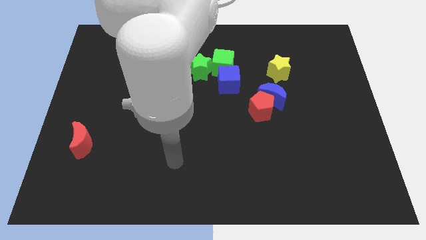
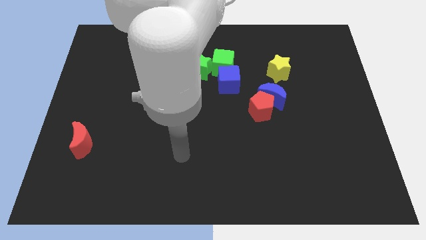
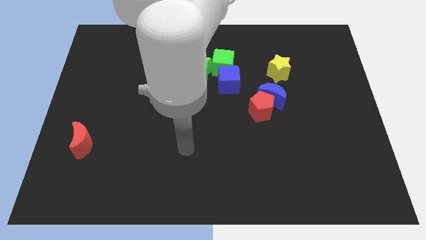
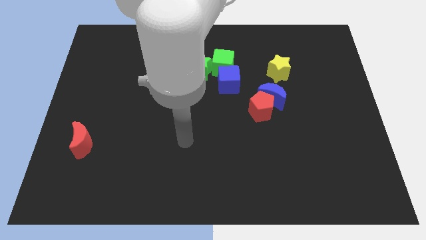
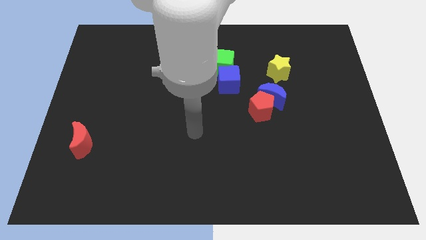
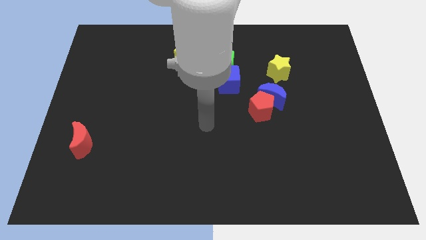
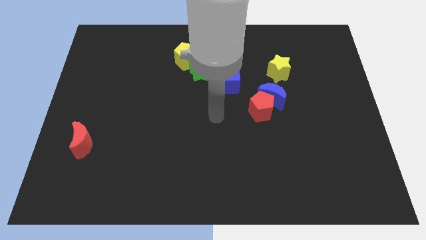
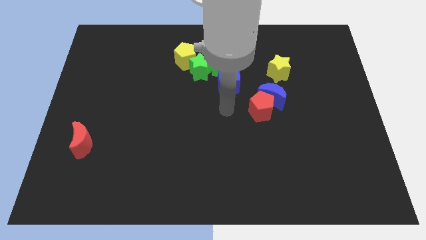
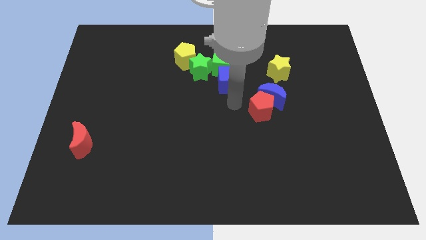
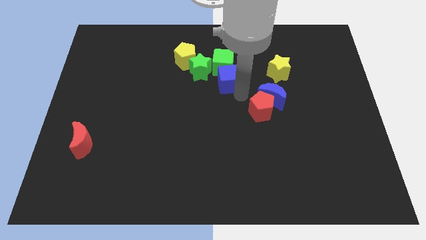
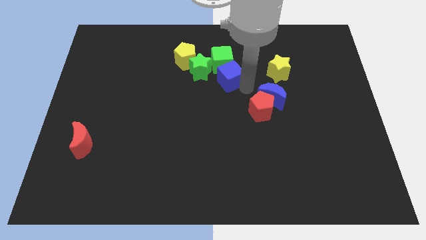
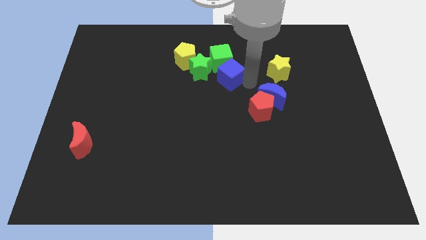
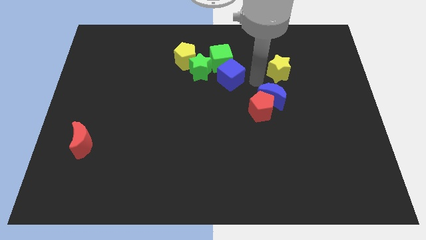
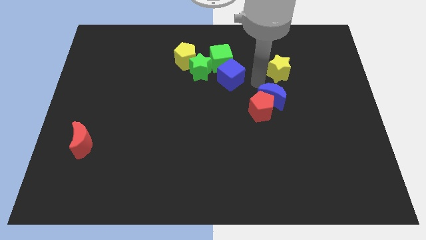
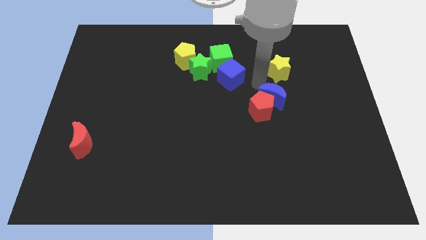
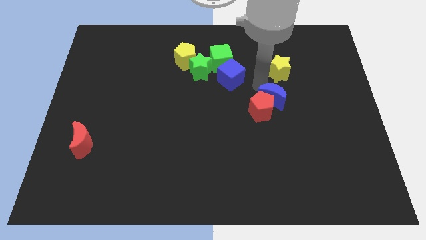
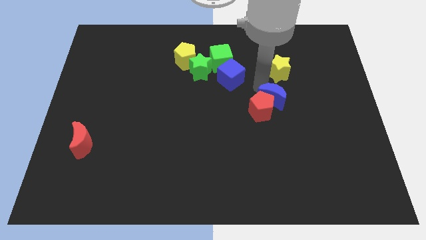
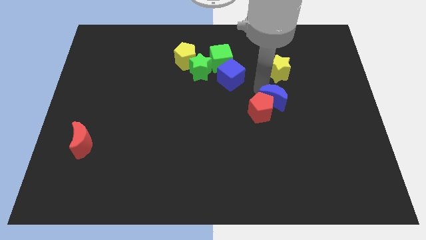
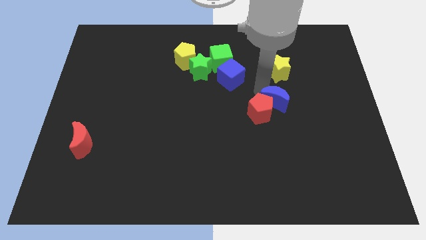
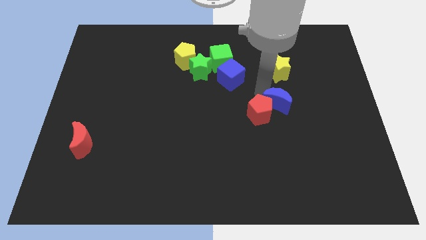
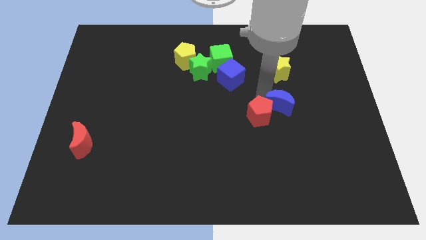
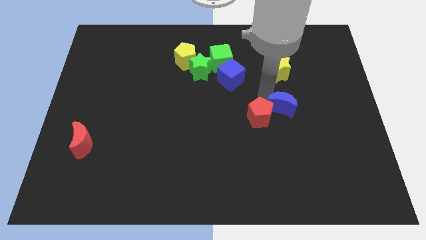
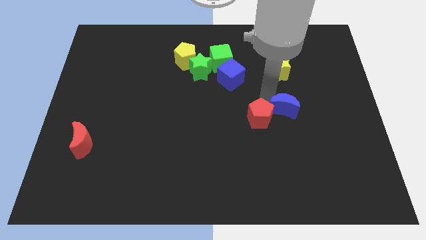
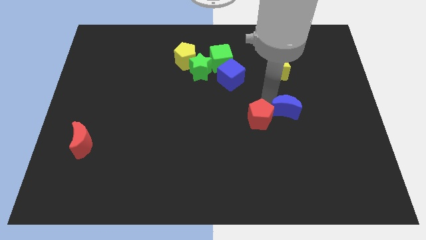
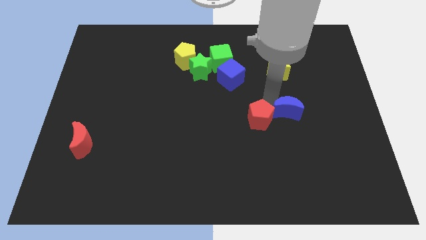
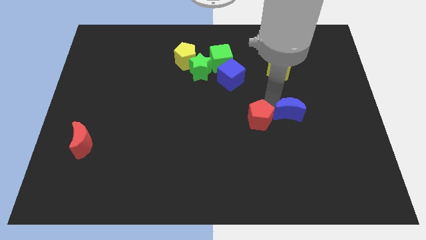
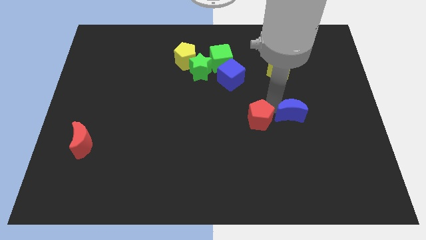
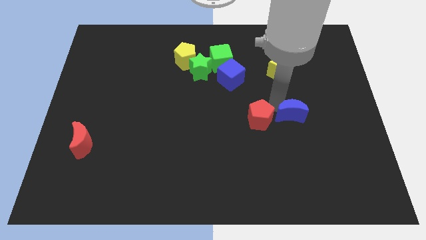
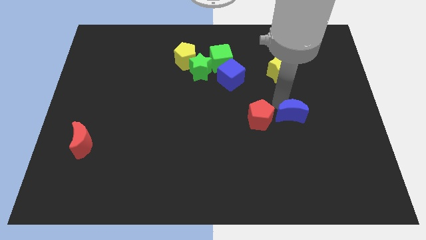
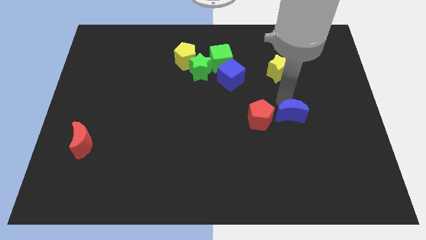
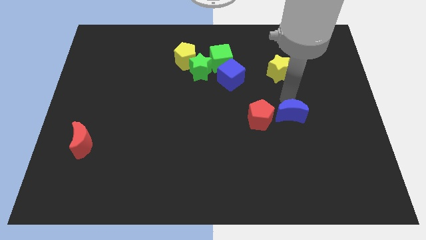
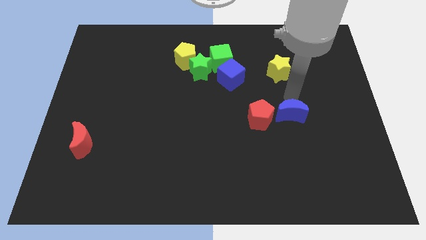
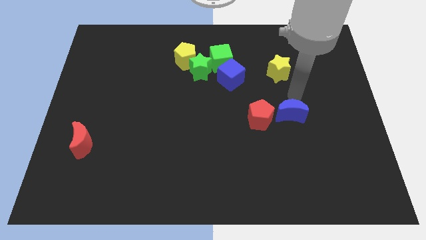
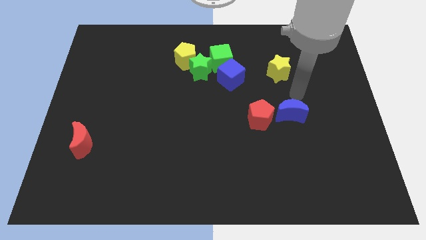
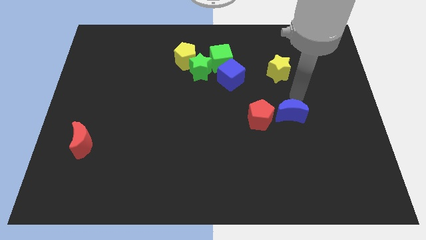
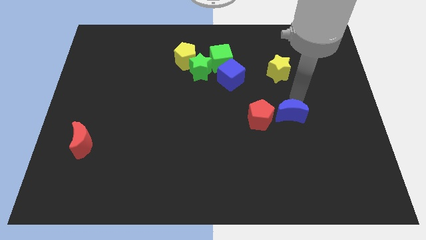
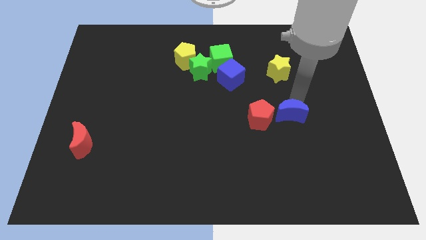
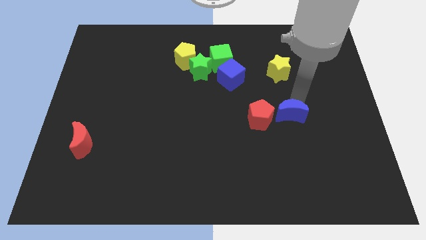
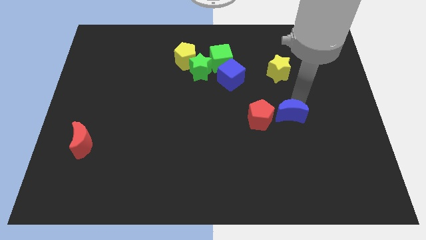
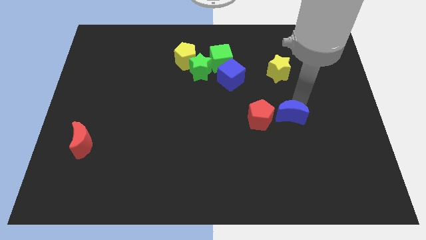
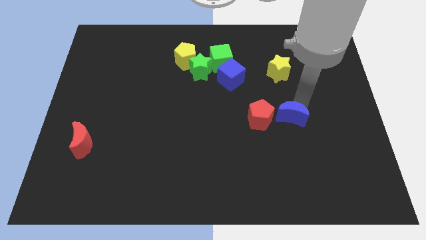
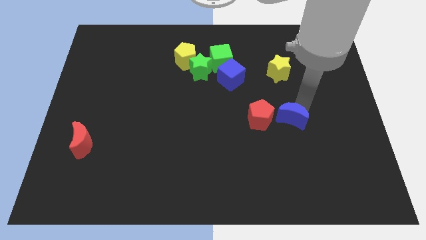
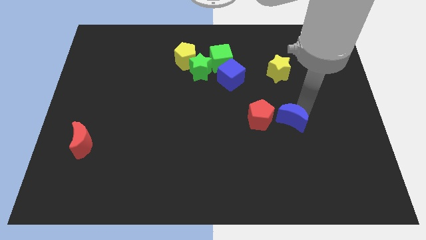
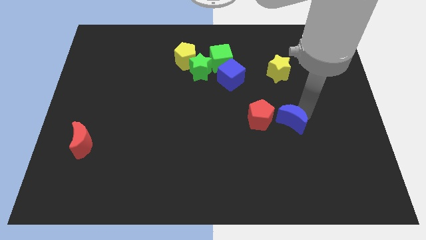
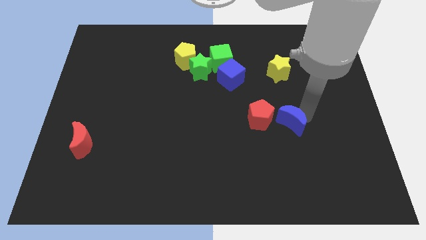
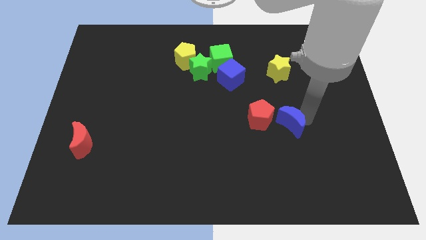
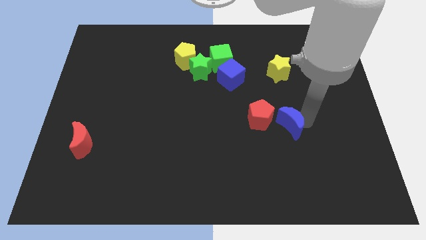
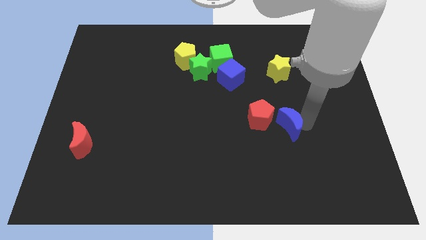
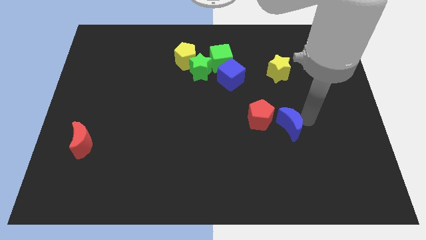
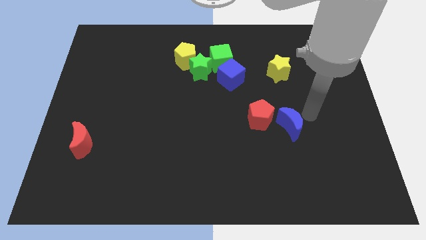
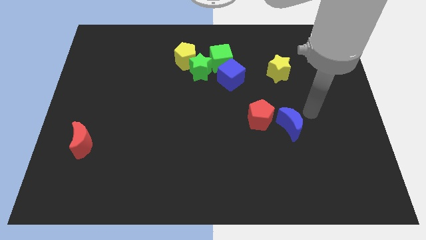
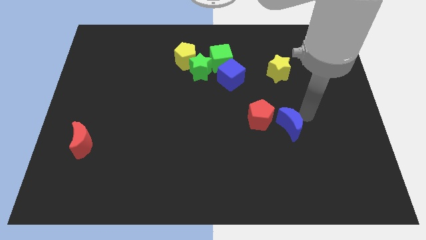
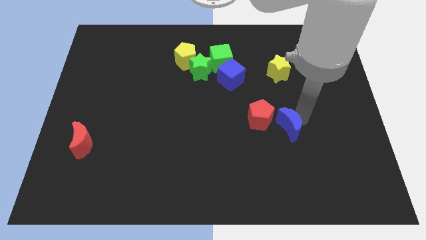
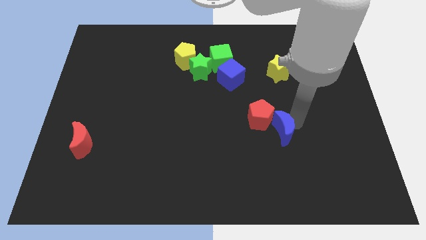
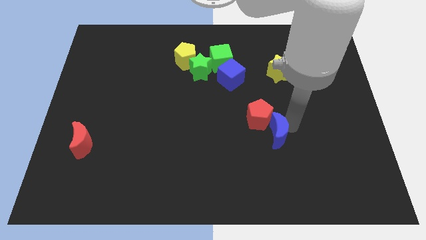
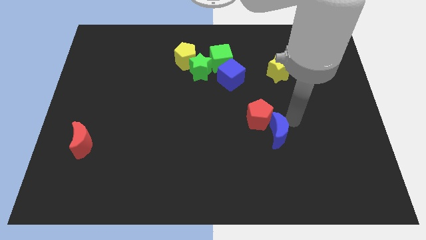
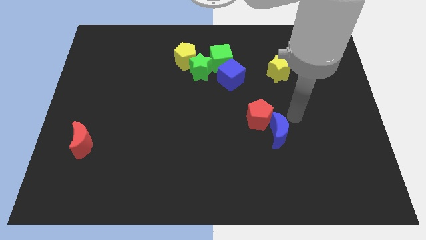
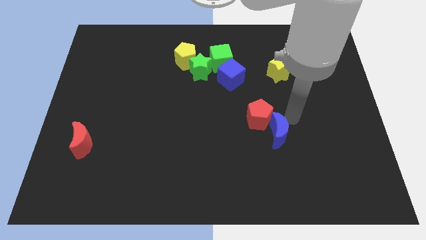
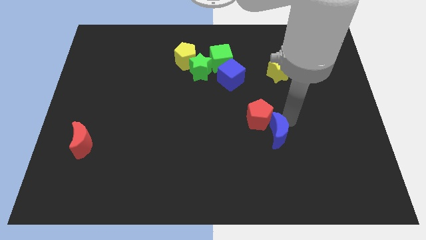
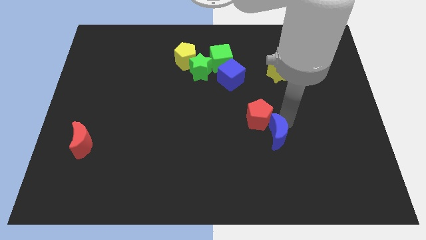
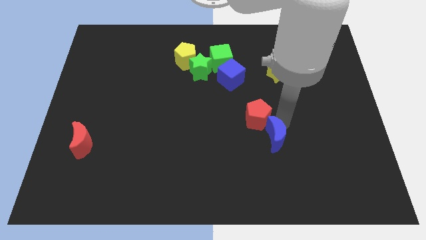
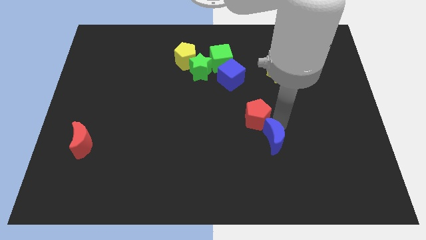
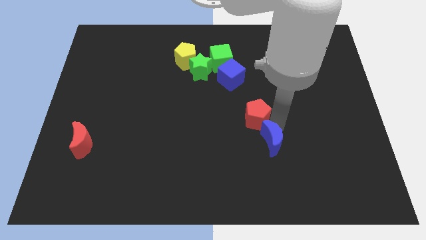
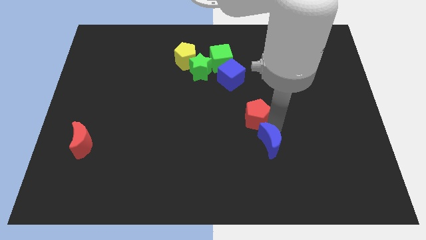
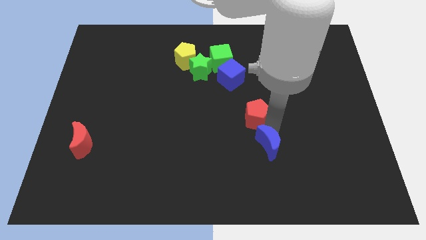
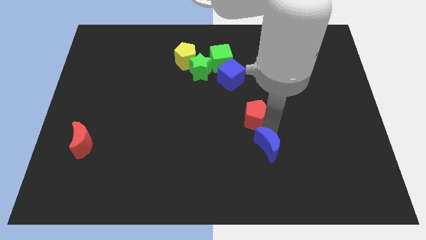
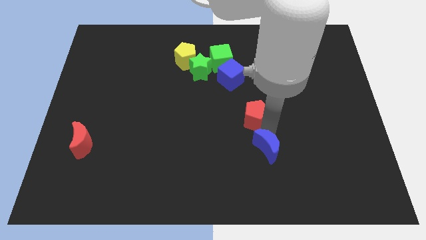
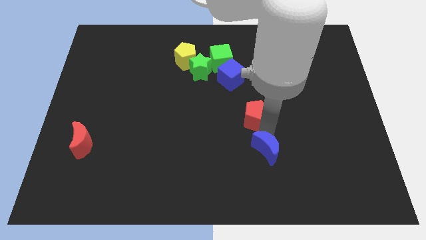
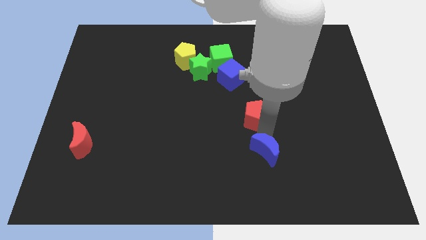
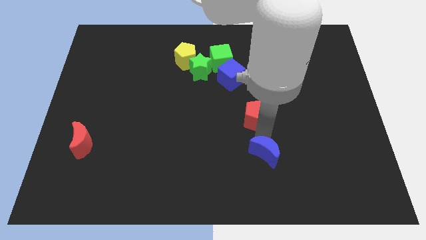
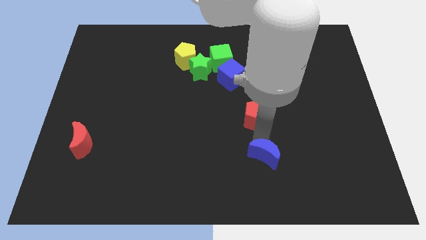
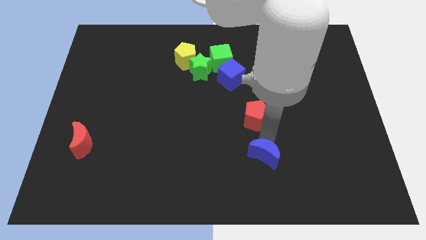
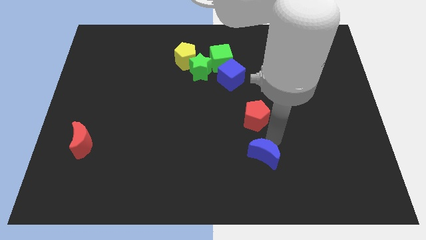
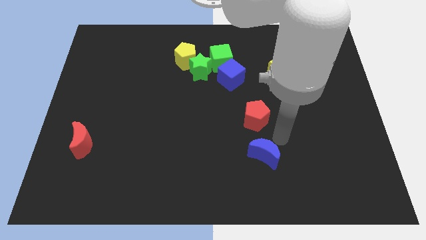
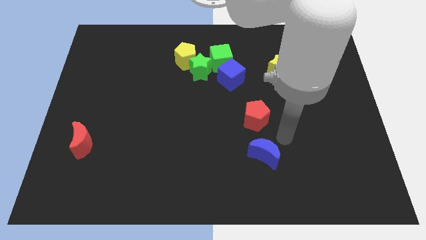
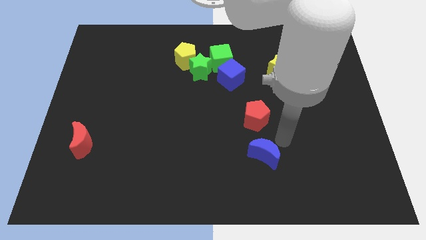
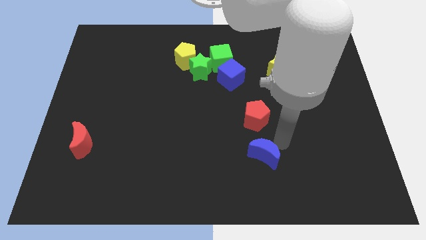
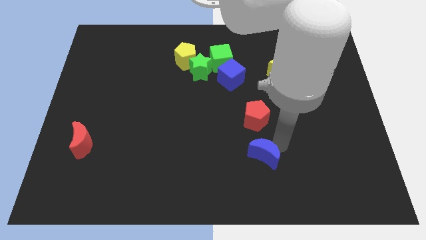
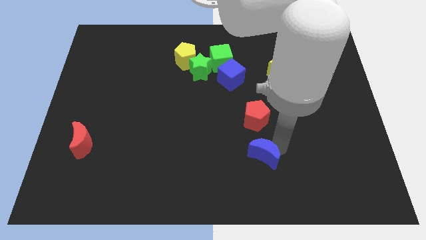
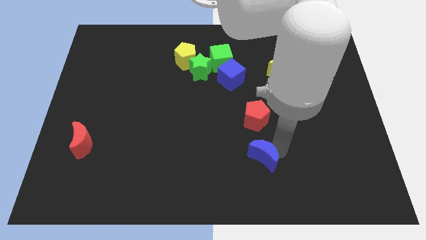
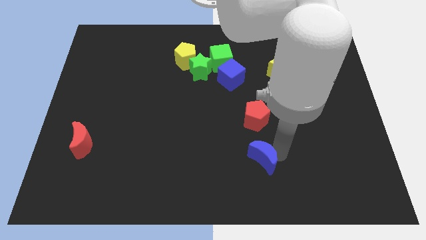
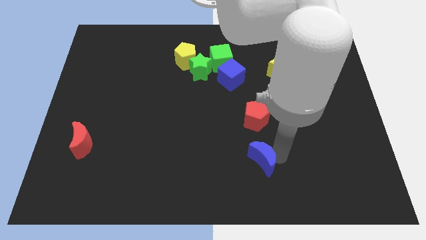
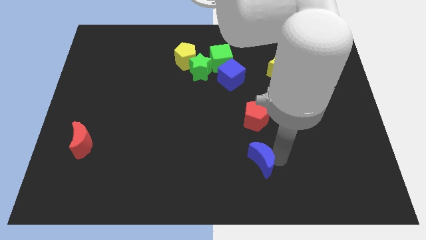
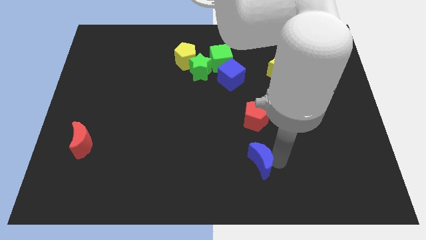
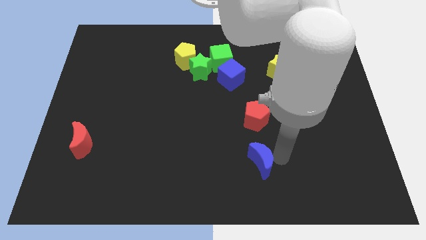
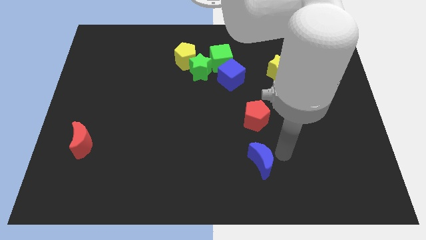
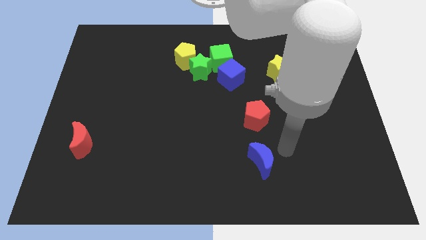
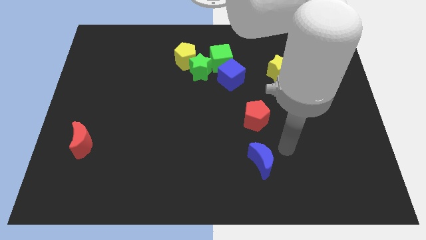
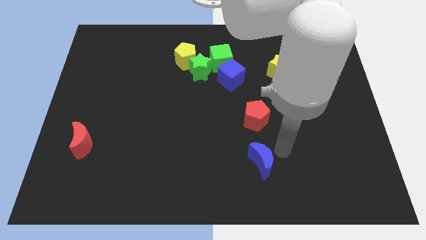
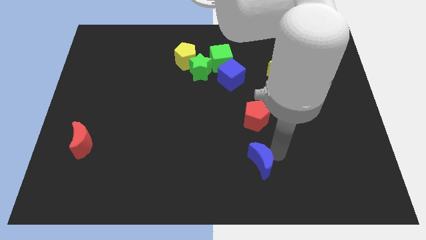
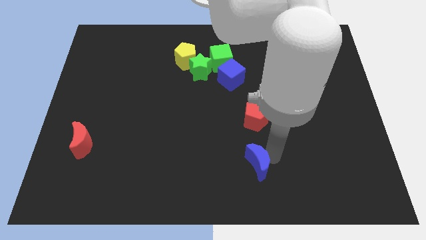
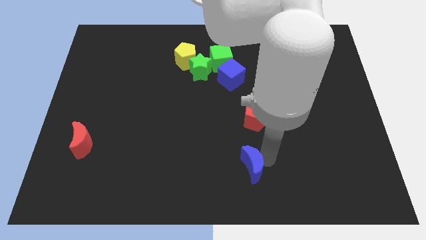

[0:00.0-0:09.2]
put the blue moon to the bottom side
